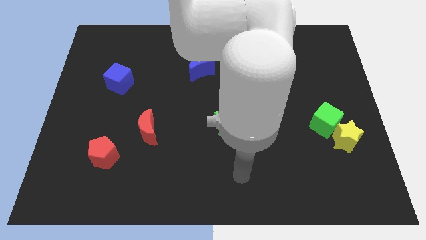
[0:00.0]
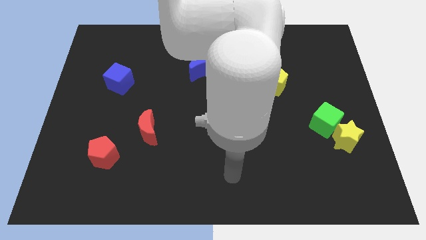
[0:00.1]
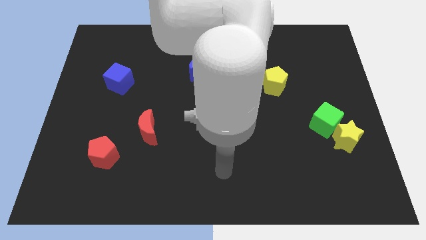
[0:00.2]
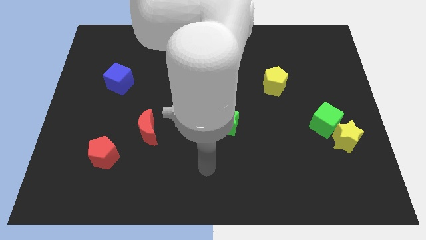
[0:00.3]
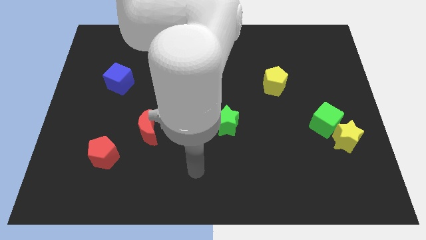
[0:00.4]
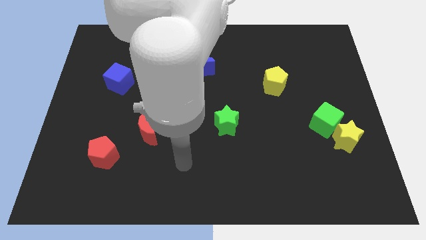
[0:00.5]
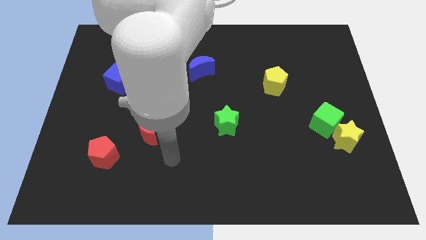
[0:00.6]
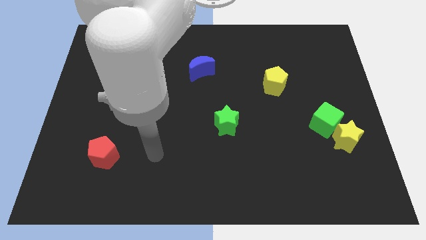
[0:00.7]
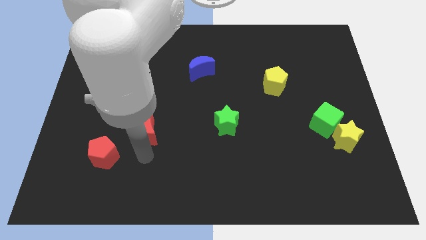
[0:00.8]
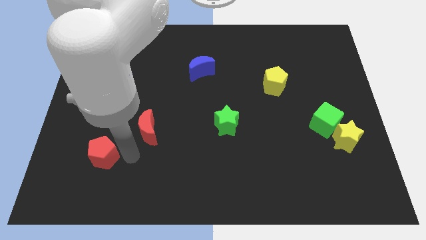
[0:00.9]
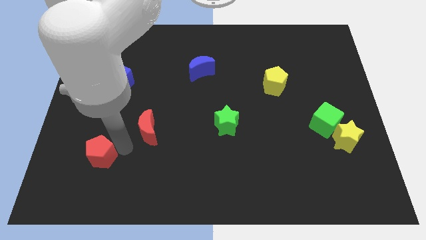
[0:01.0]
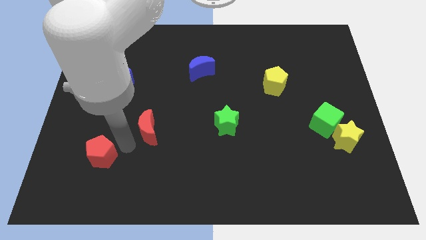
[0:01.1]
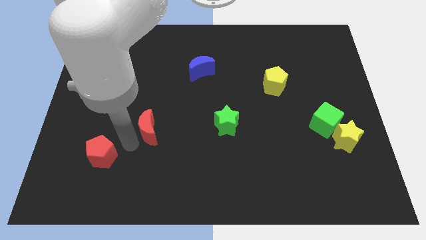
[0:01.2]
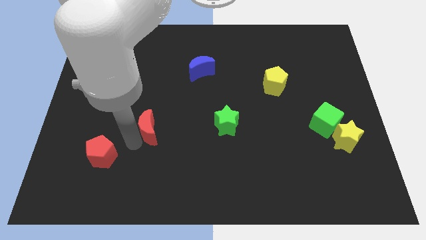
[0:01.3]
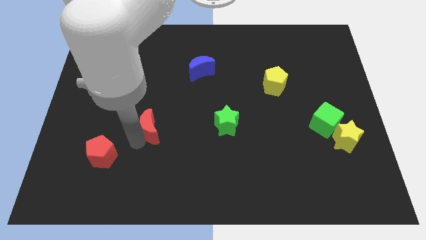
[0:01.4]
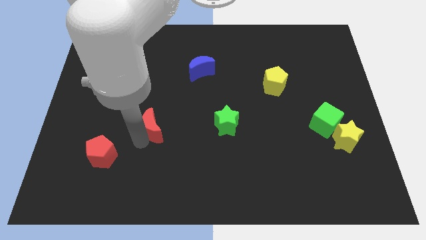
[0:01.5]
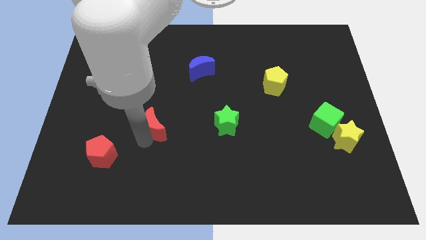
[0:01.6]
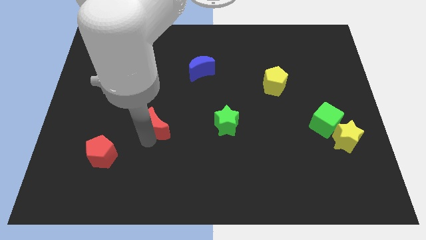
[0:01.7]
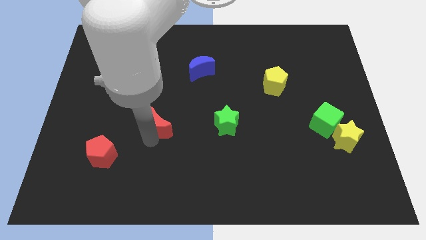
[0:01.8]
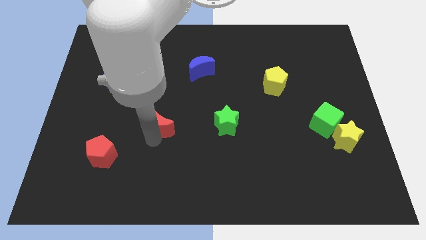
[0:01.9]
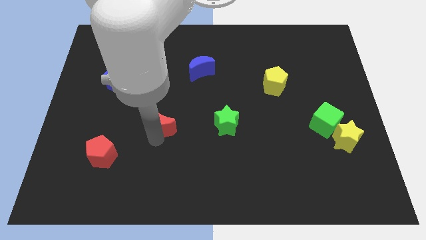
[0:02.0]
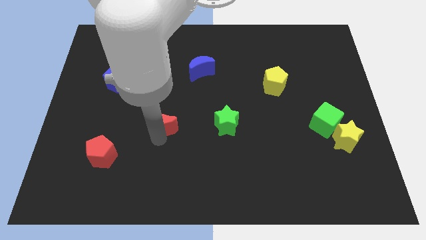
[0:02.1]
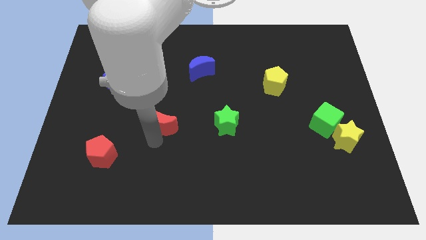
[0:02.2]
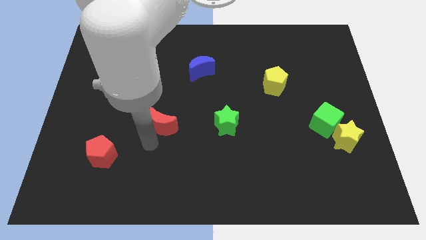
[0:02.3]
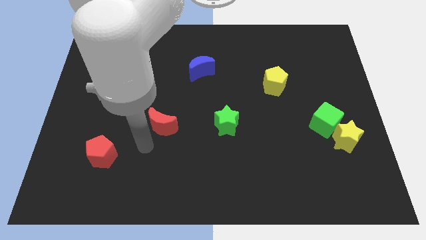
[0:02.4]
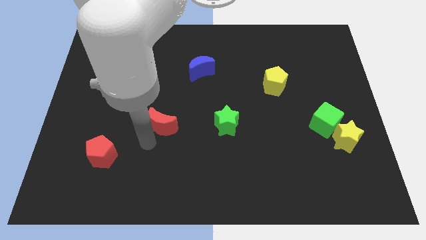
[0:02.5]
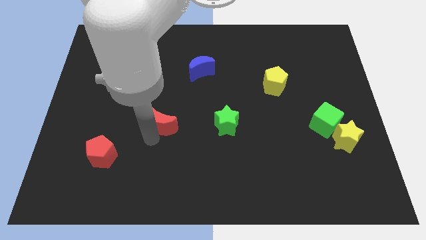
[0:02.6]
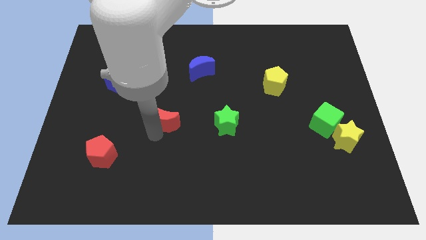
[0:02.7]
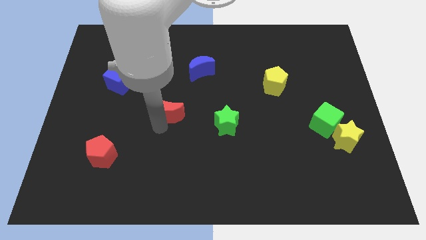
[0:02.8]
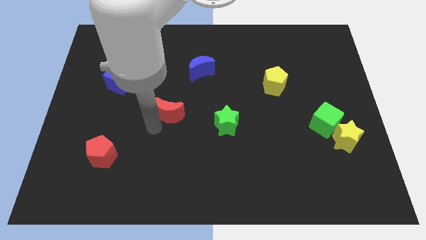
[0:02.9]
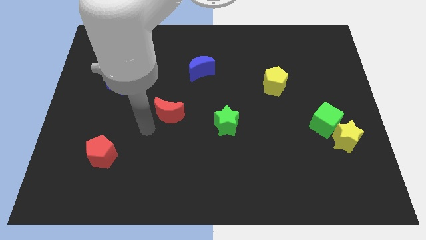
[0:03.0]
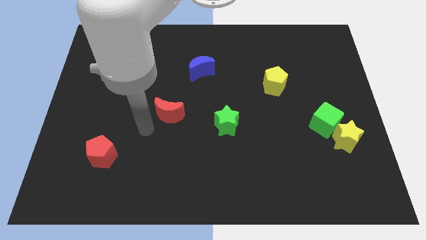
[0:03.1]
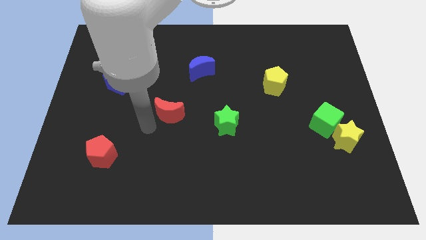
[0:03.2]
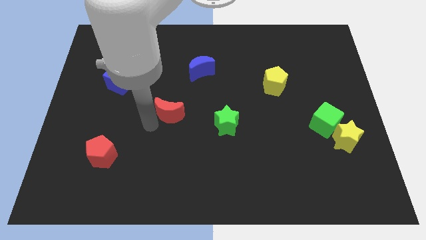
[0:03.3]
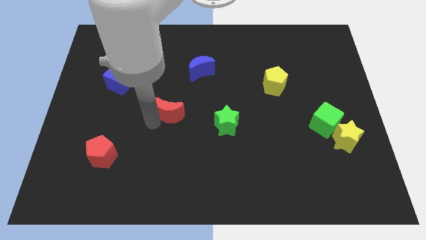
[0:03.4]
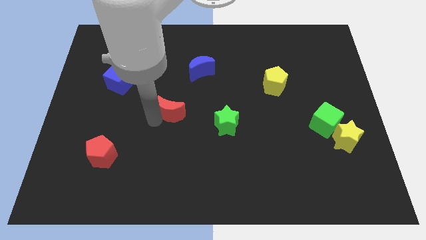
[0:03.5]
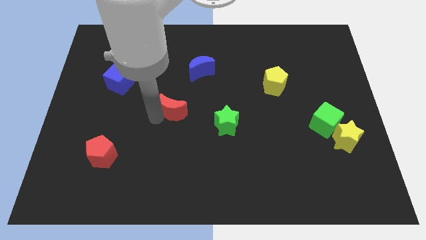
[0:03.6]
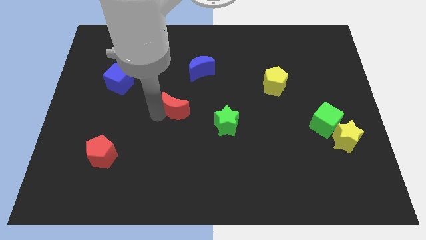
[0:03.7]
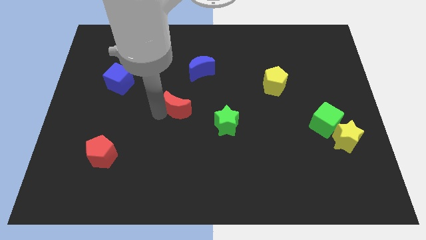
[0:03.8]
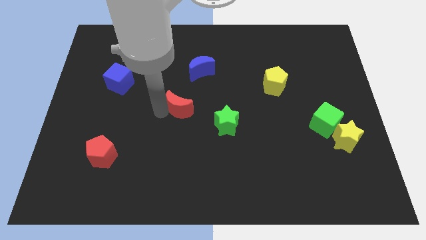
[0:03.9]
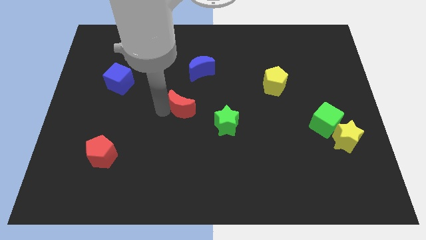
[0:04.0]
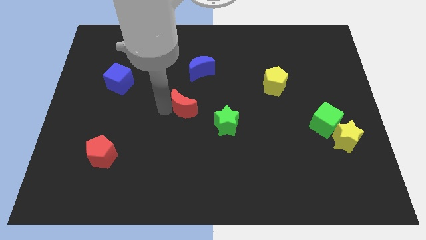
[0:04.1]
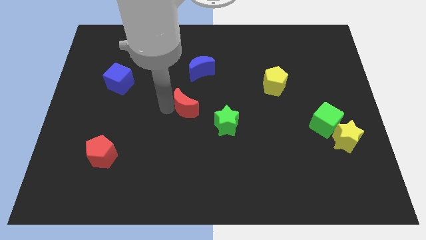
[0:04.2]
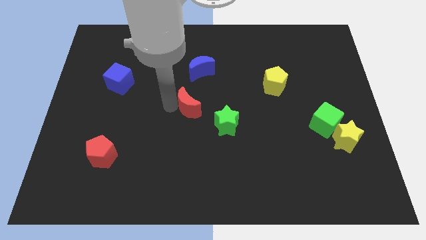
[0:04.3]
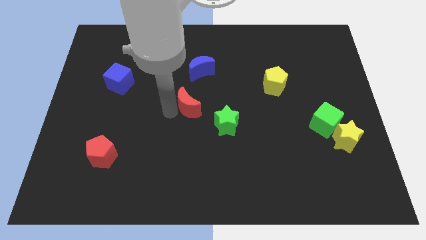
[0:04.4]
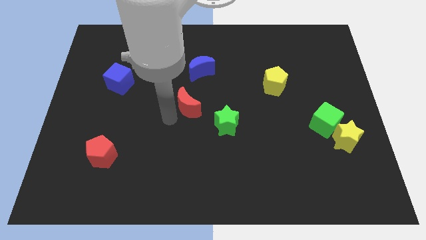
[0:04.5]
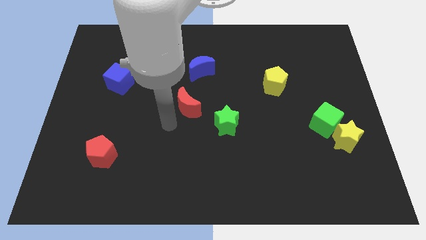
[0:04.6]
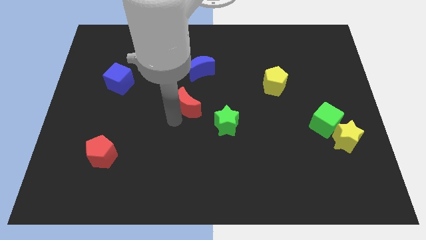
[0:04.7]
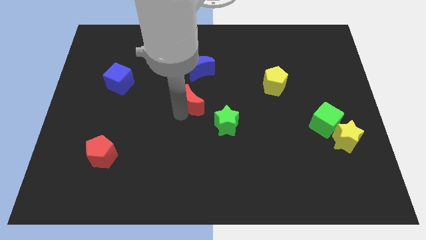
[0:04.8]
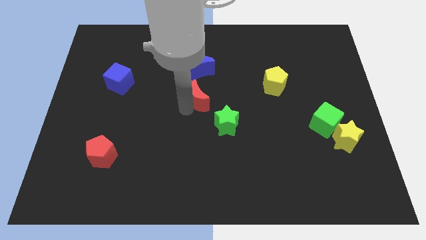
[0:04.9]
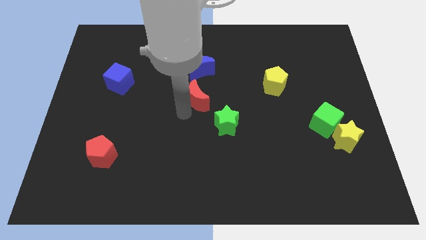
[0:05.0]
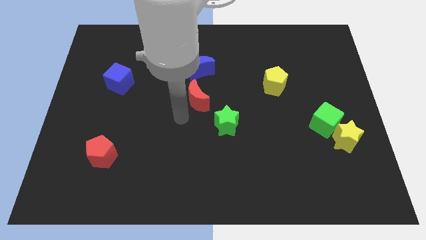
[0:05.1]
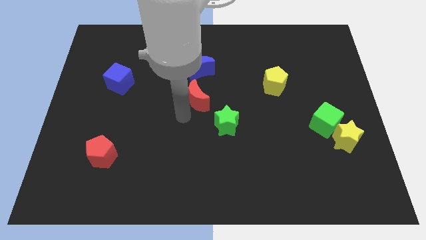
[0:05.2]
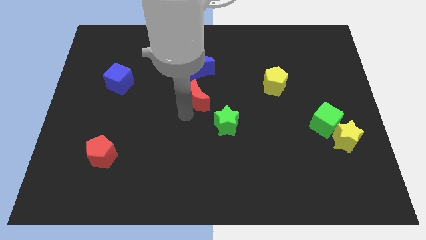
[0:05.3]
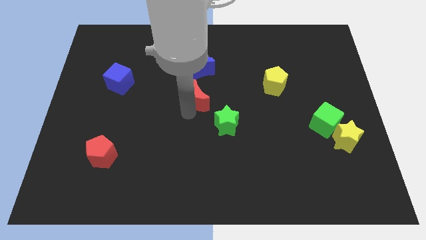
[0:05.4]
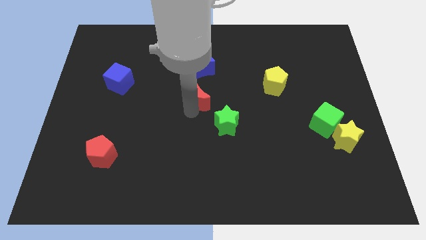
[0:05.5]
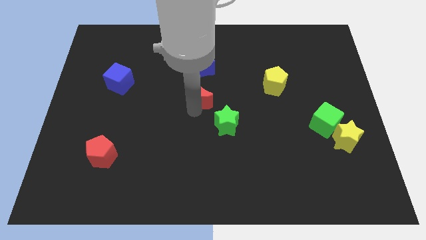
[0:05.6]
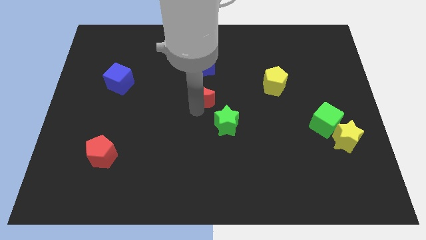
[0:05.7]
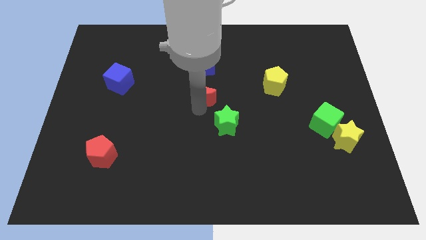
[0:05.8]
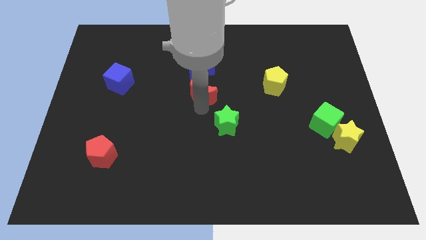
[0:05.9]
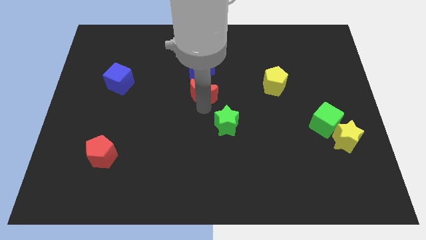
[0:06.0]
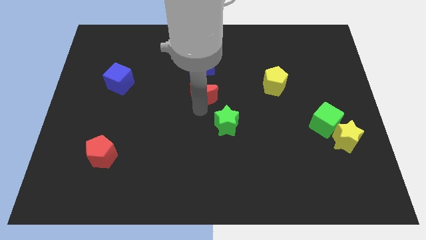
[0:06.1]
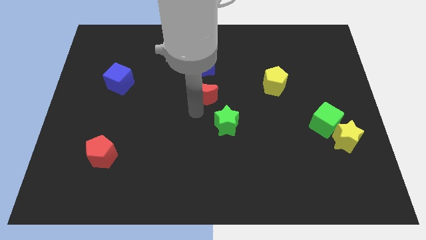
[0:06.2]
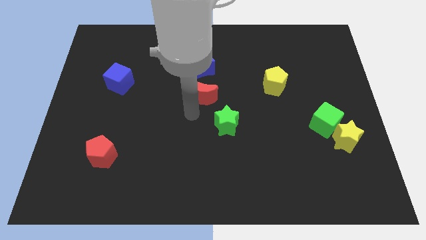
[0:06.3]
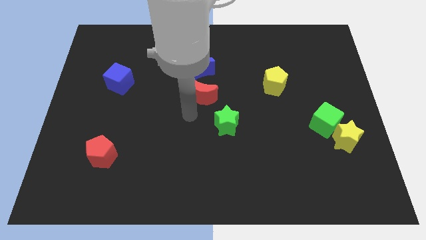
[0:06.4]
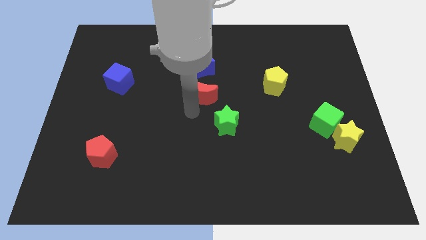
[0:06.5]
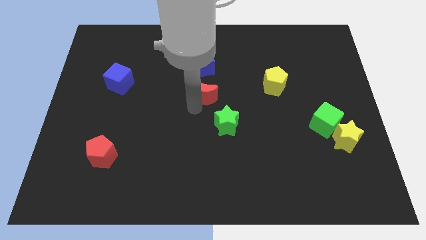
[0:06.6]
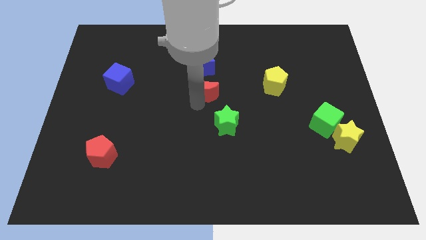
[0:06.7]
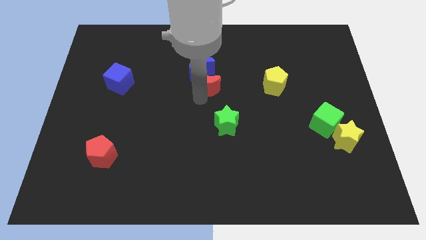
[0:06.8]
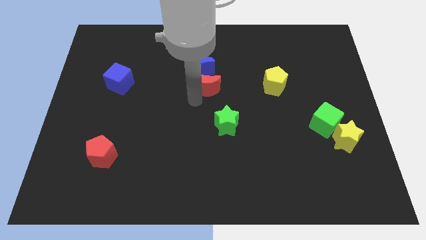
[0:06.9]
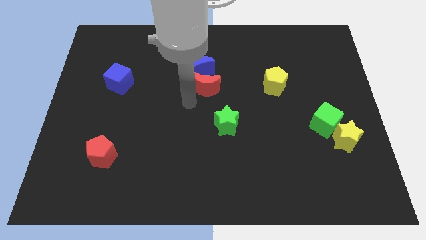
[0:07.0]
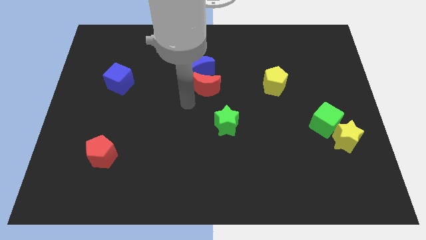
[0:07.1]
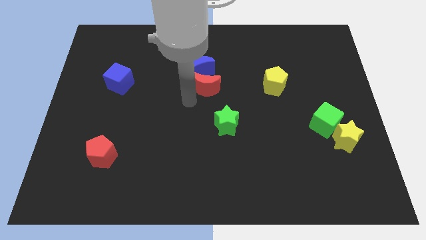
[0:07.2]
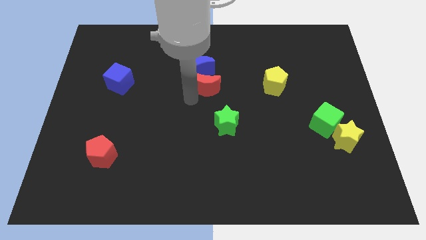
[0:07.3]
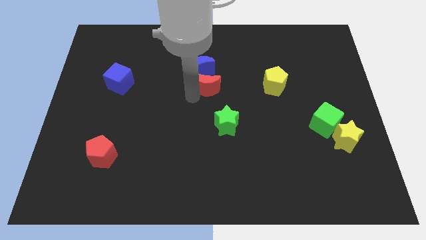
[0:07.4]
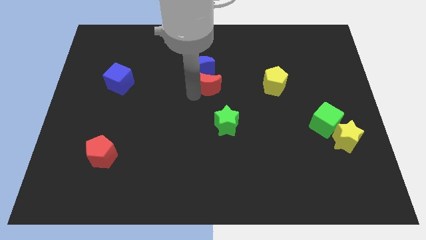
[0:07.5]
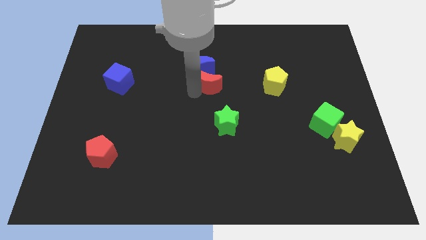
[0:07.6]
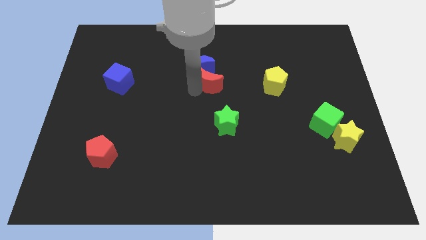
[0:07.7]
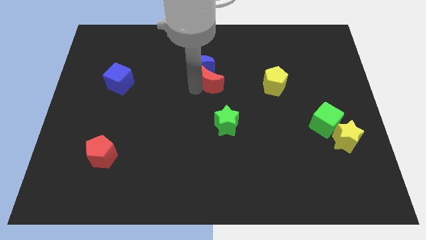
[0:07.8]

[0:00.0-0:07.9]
slide the red moon diagonally upwards and right
